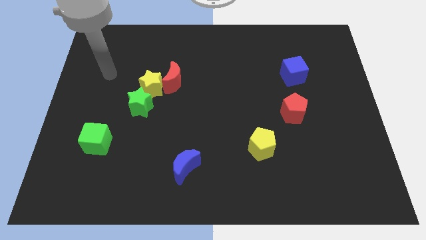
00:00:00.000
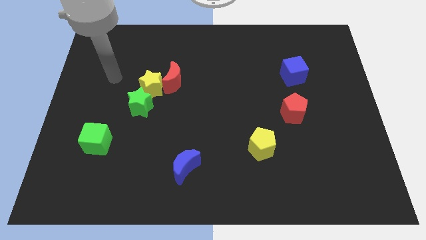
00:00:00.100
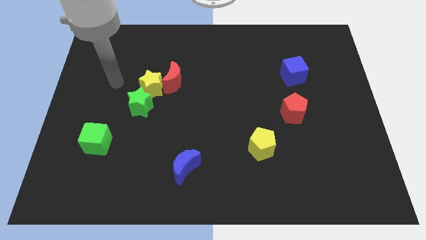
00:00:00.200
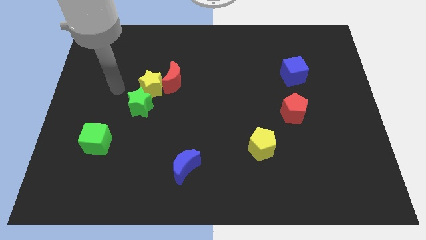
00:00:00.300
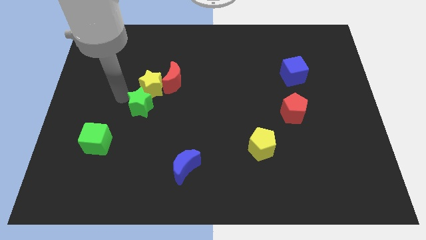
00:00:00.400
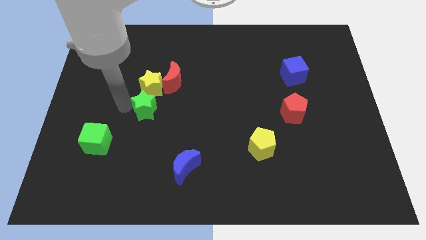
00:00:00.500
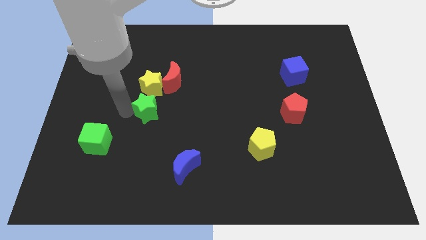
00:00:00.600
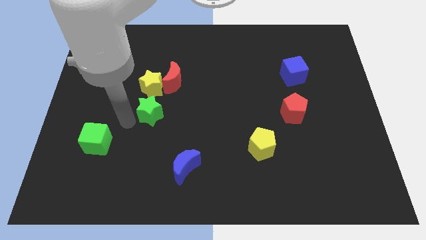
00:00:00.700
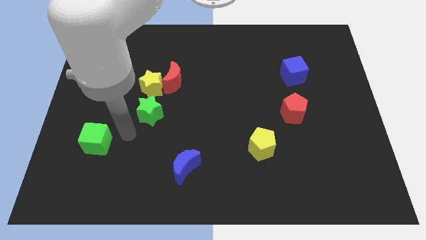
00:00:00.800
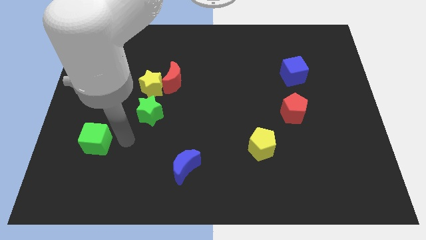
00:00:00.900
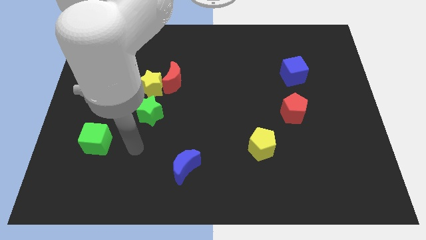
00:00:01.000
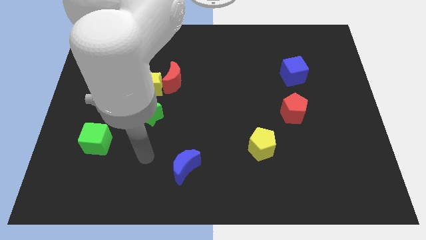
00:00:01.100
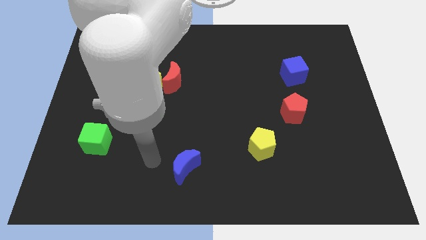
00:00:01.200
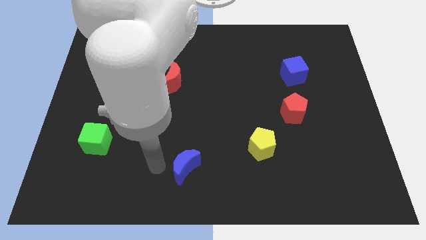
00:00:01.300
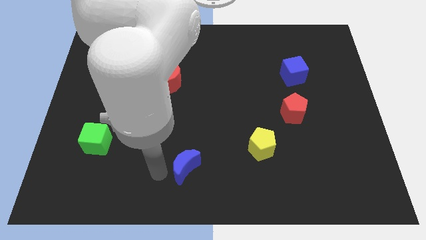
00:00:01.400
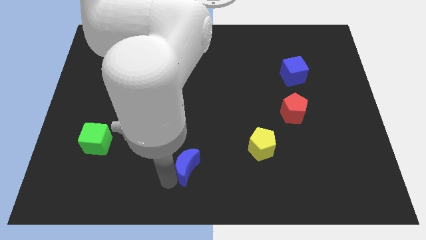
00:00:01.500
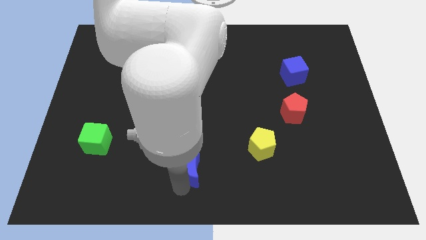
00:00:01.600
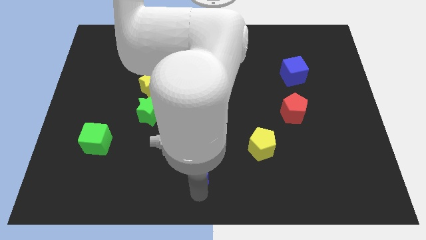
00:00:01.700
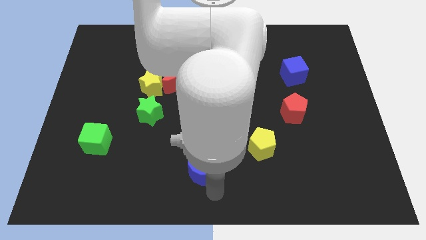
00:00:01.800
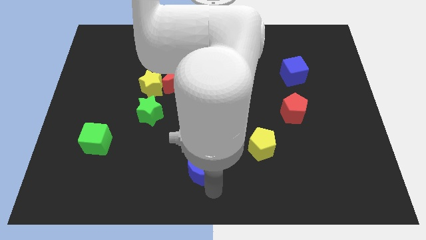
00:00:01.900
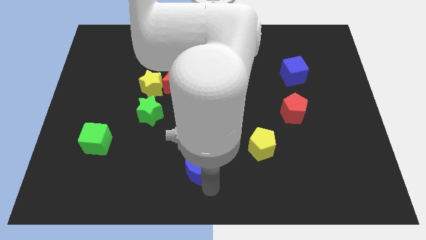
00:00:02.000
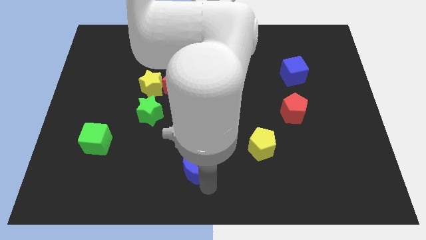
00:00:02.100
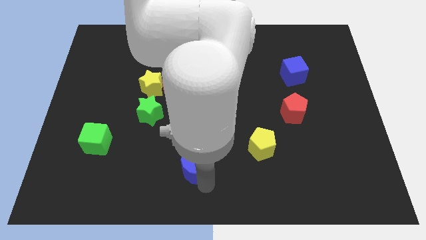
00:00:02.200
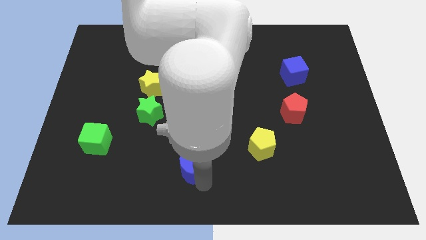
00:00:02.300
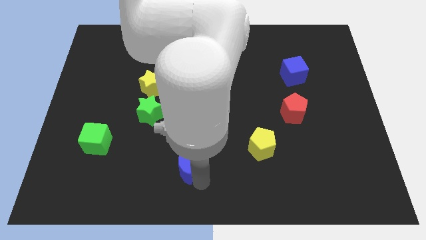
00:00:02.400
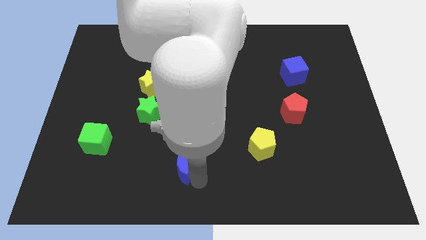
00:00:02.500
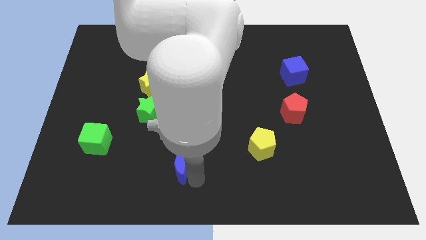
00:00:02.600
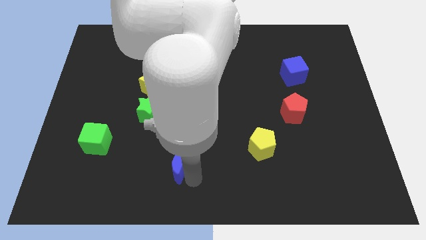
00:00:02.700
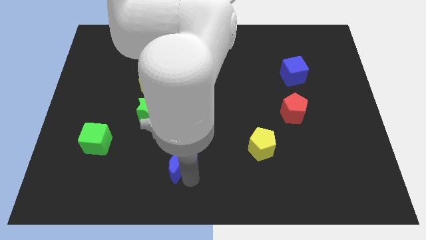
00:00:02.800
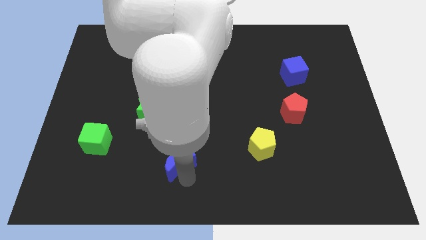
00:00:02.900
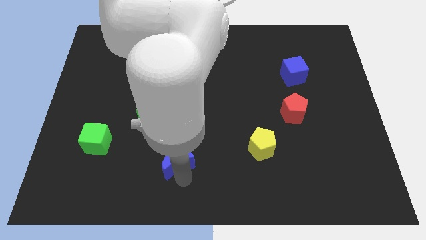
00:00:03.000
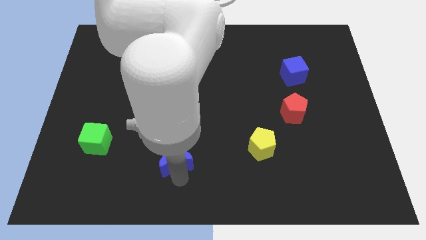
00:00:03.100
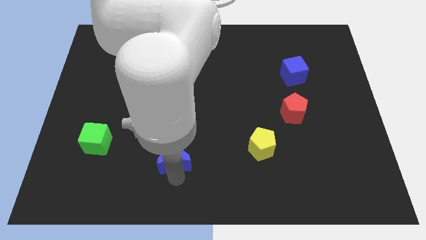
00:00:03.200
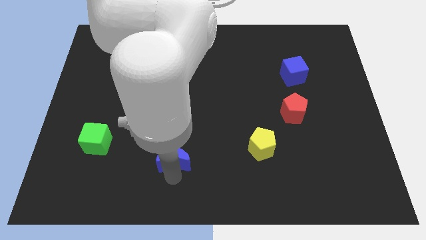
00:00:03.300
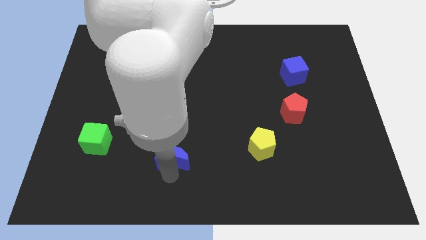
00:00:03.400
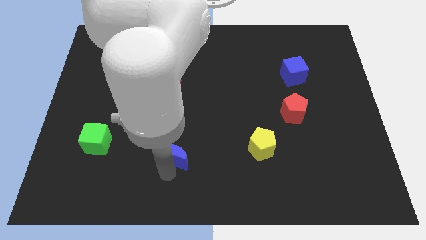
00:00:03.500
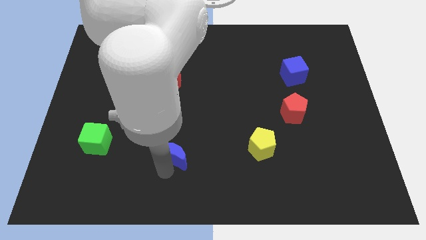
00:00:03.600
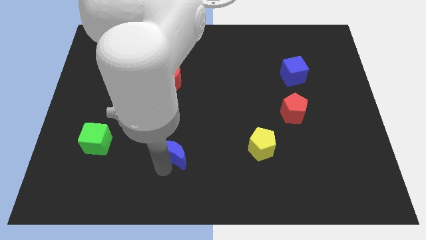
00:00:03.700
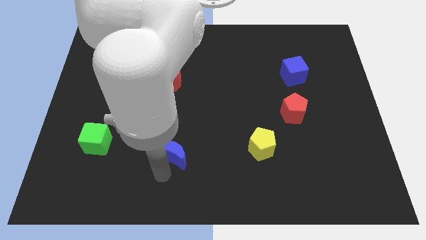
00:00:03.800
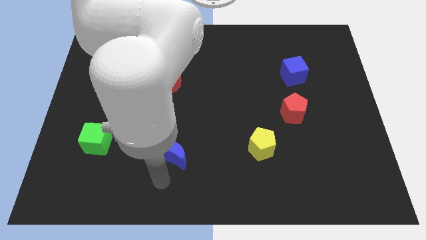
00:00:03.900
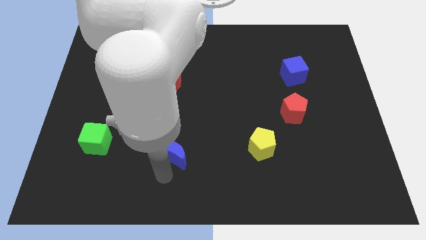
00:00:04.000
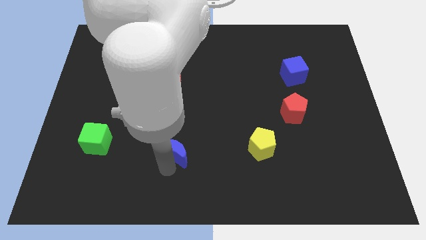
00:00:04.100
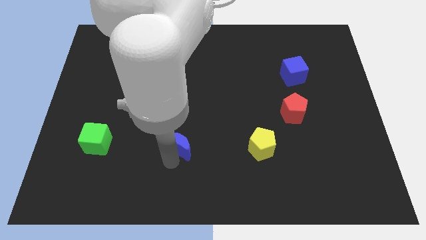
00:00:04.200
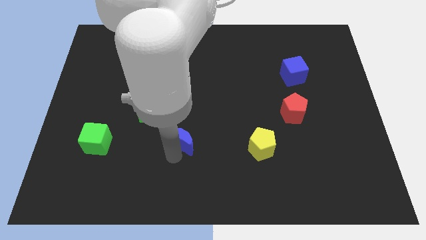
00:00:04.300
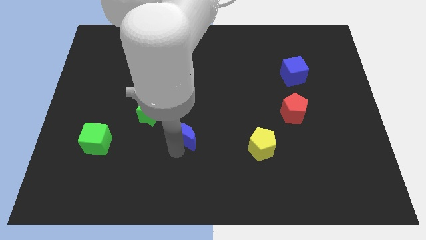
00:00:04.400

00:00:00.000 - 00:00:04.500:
slightly slide the blue moon upwards

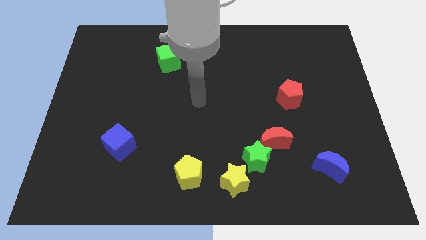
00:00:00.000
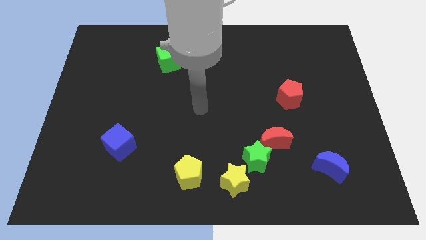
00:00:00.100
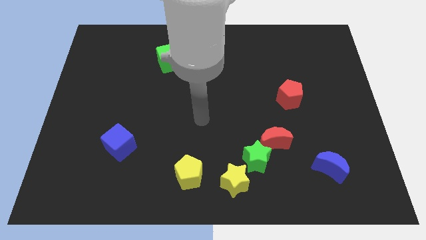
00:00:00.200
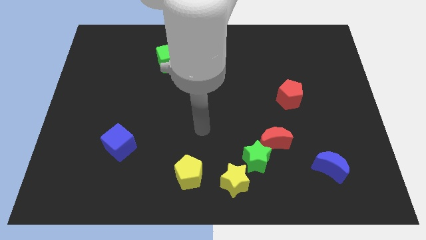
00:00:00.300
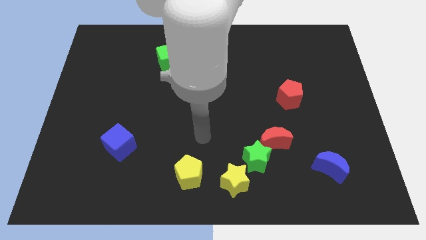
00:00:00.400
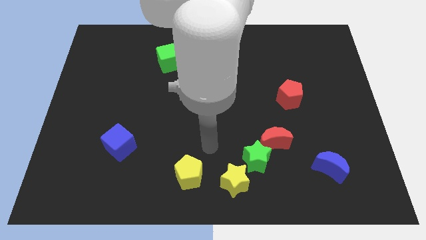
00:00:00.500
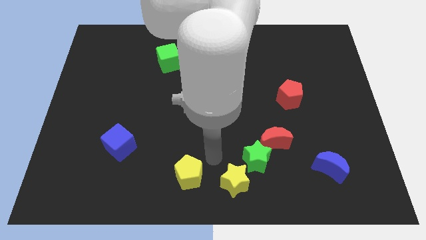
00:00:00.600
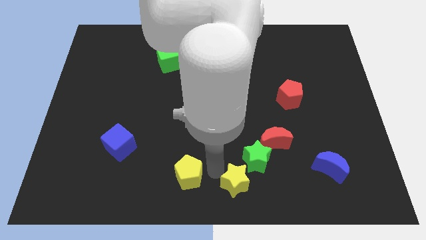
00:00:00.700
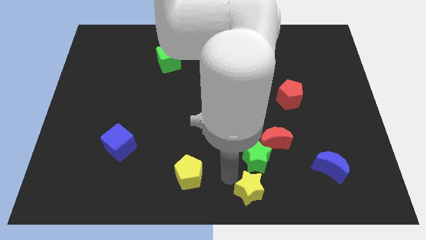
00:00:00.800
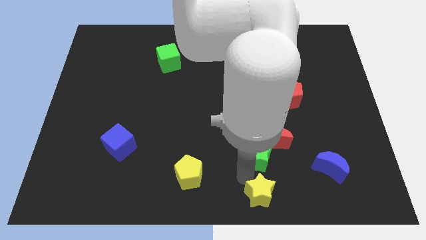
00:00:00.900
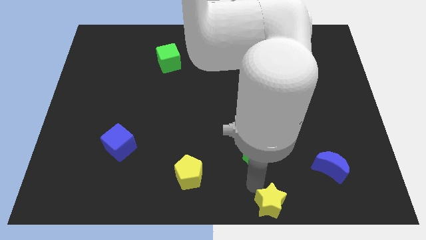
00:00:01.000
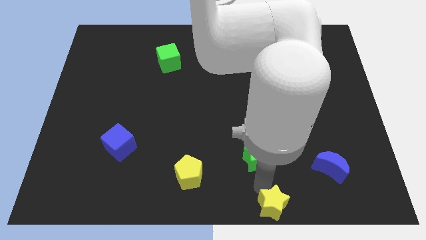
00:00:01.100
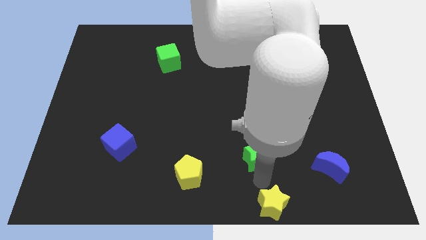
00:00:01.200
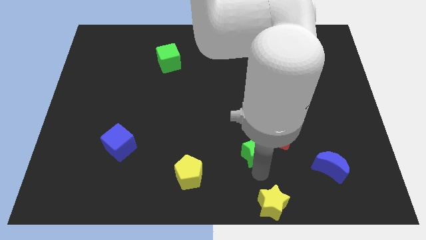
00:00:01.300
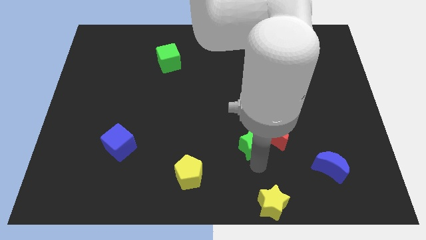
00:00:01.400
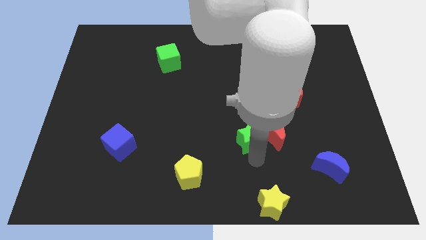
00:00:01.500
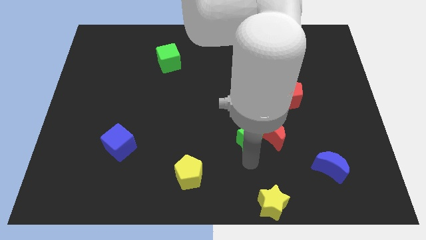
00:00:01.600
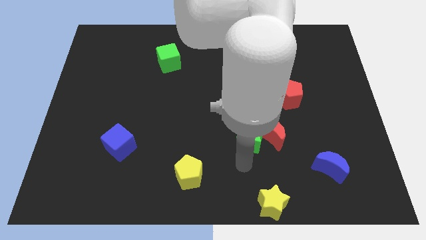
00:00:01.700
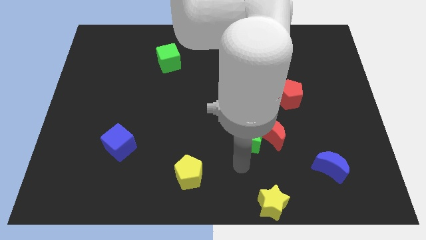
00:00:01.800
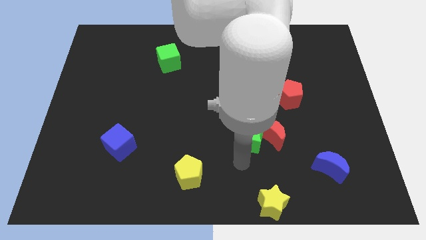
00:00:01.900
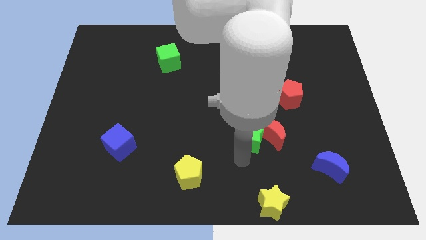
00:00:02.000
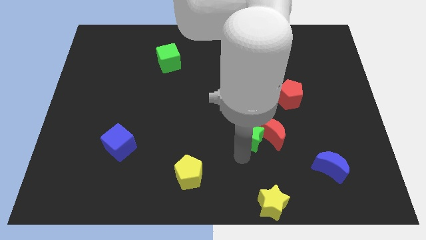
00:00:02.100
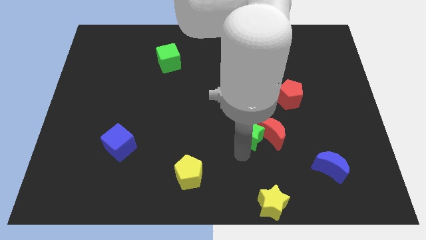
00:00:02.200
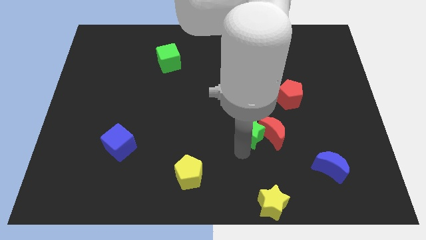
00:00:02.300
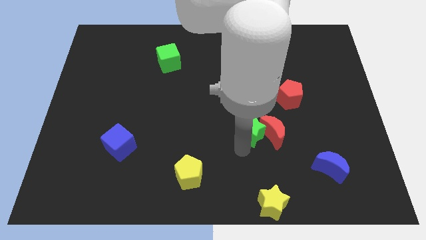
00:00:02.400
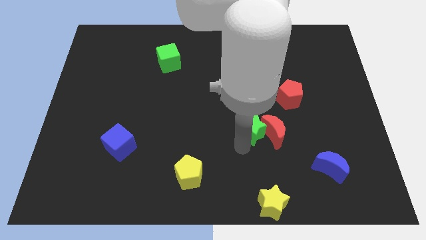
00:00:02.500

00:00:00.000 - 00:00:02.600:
slide the green star a little up

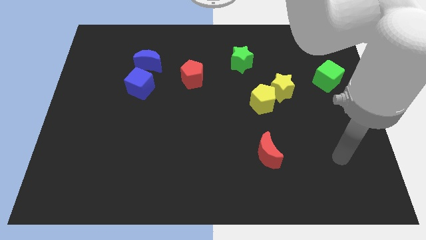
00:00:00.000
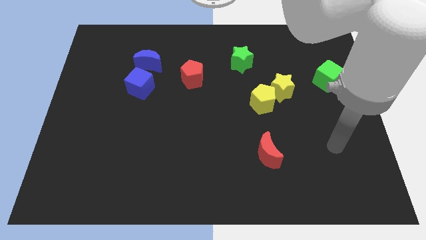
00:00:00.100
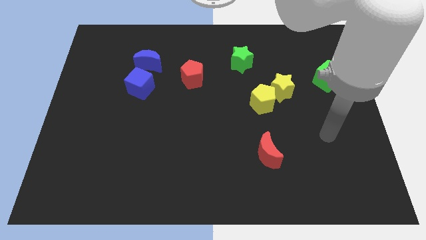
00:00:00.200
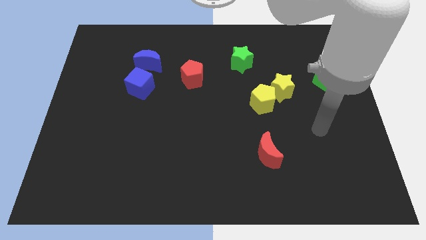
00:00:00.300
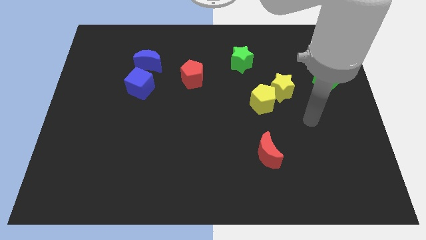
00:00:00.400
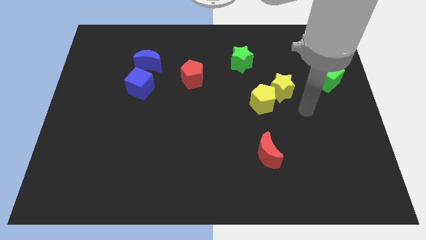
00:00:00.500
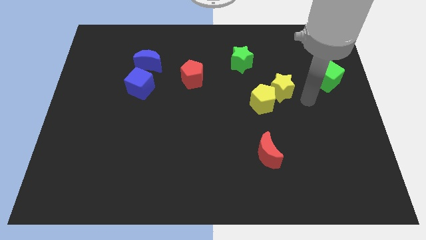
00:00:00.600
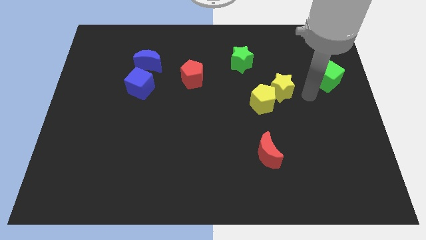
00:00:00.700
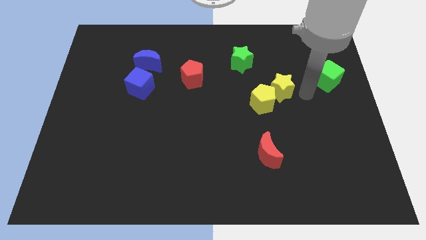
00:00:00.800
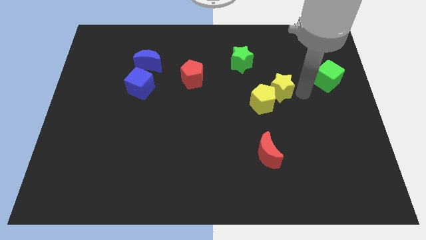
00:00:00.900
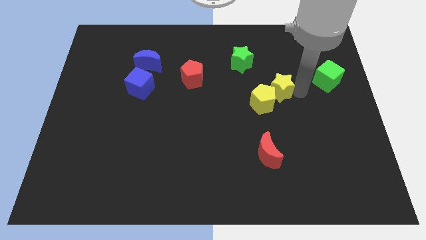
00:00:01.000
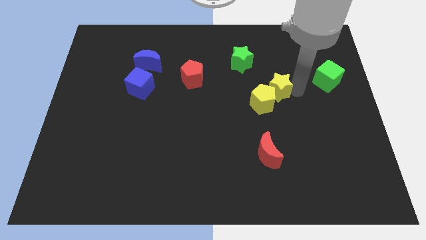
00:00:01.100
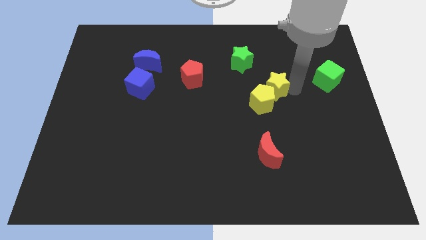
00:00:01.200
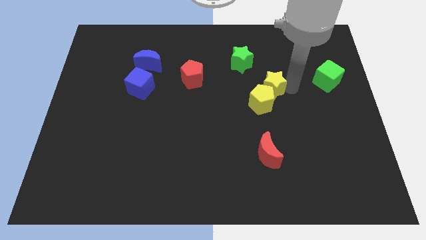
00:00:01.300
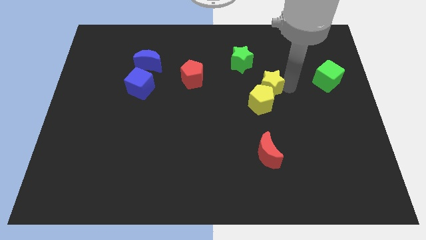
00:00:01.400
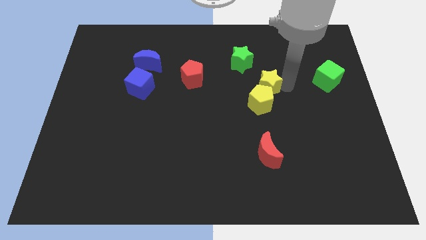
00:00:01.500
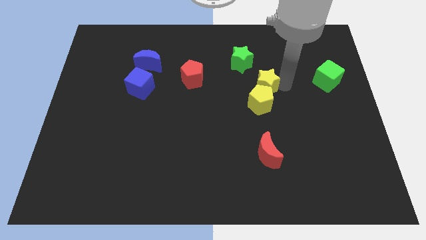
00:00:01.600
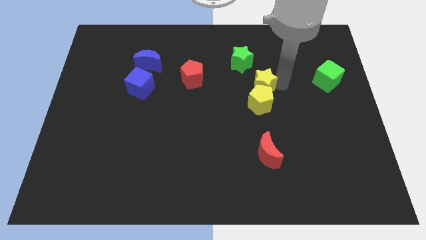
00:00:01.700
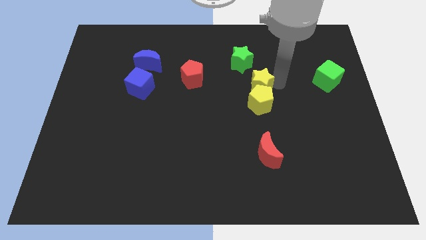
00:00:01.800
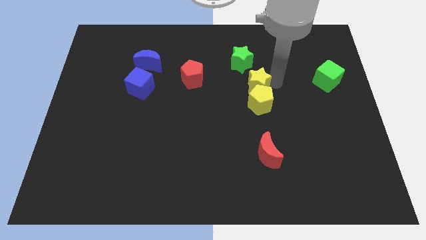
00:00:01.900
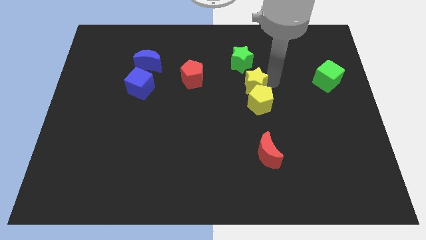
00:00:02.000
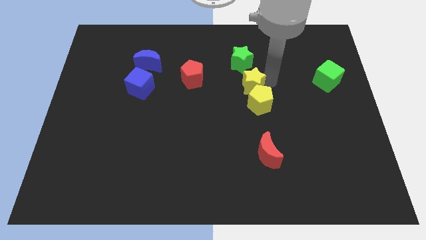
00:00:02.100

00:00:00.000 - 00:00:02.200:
slide the yellow star left a bit
